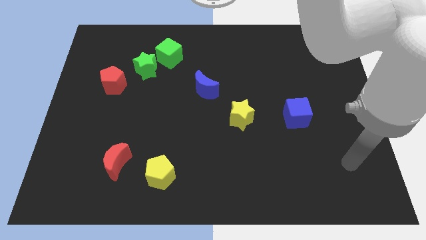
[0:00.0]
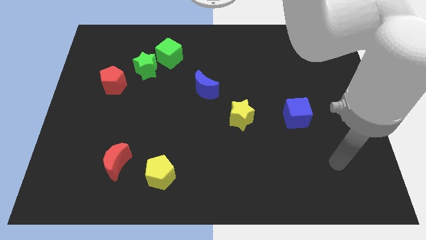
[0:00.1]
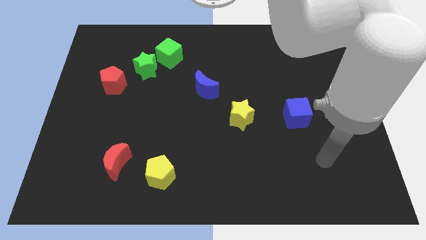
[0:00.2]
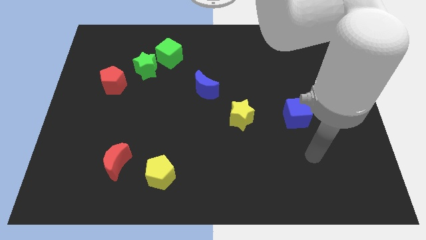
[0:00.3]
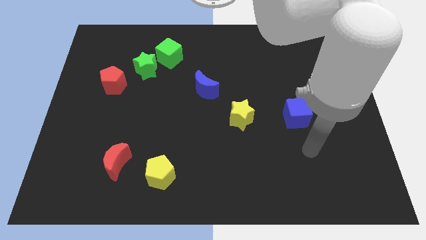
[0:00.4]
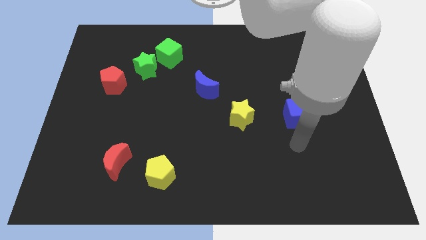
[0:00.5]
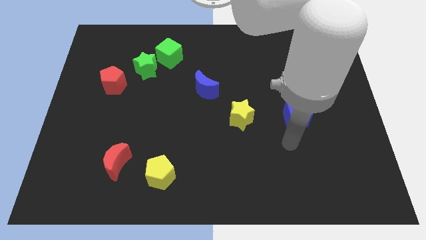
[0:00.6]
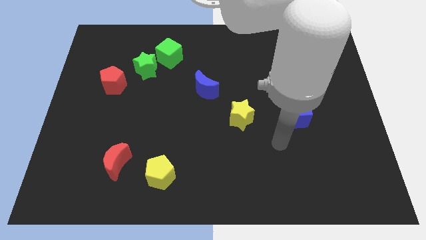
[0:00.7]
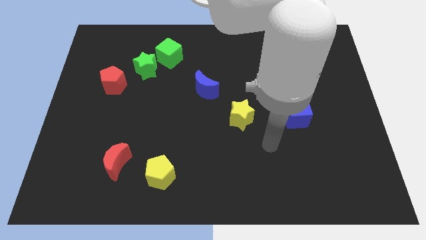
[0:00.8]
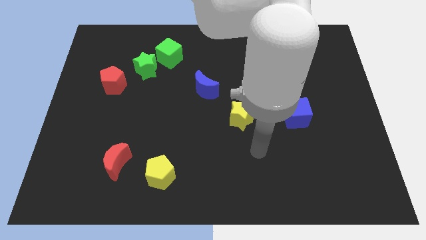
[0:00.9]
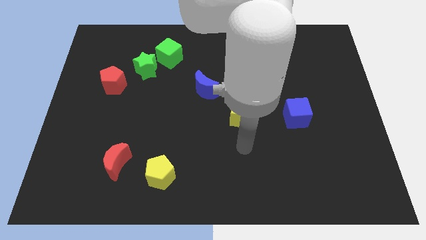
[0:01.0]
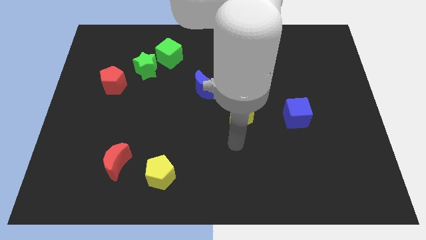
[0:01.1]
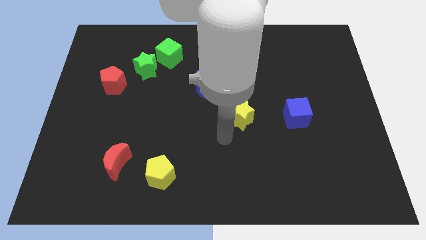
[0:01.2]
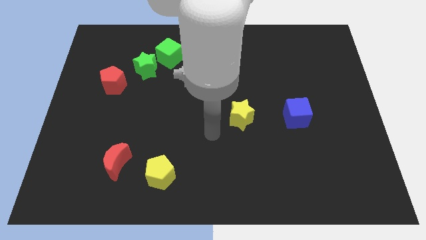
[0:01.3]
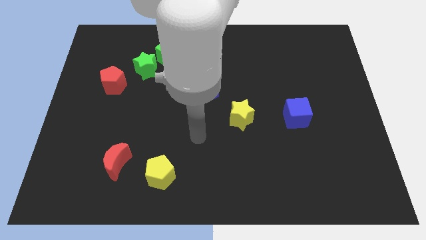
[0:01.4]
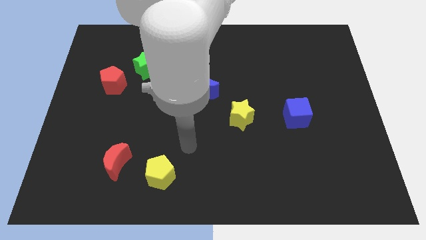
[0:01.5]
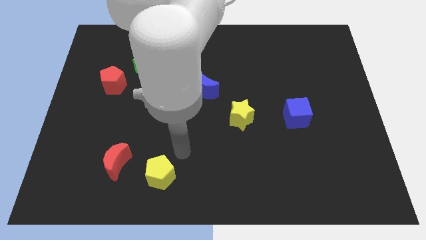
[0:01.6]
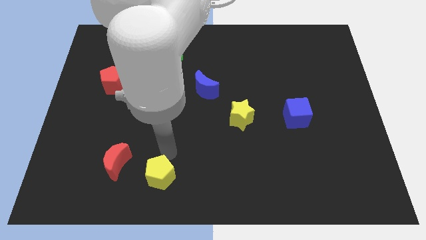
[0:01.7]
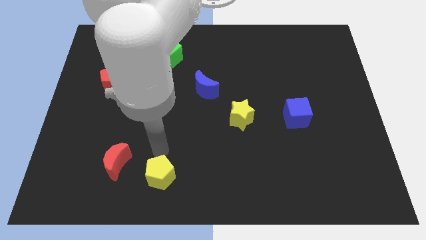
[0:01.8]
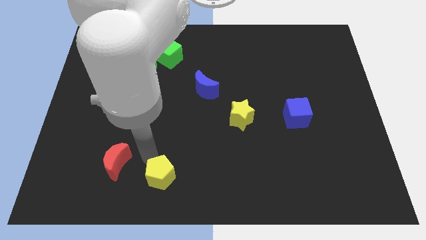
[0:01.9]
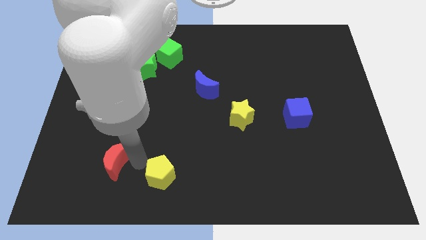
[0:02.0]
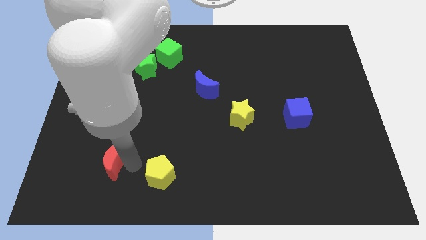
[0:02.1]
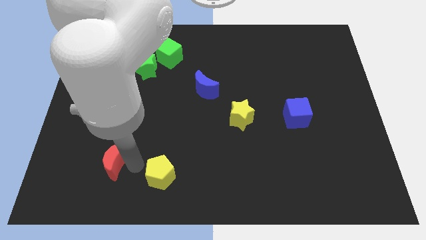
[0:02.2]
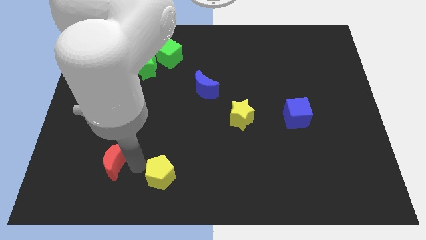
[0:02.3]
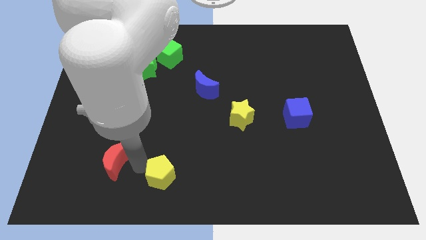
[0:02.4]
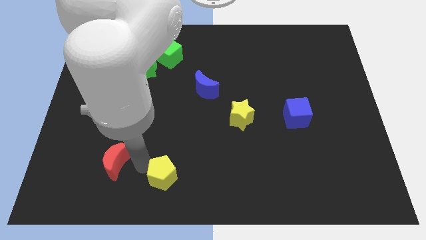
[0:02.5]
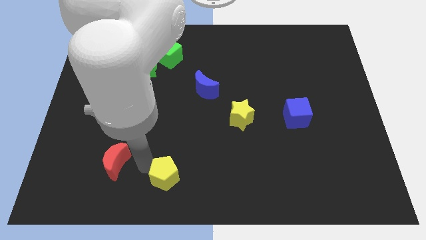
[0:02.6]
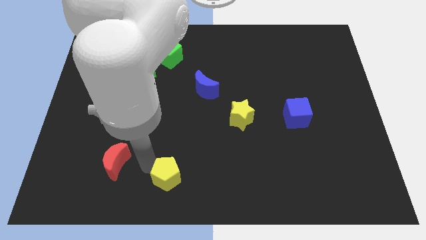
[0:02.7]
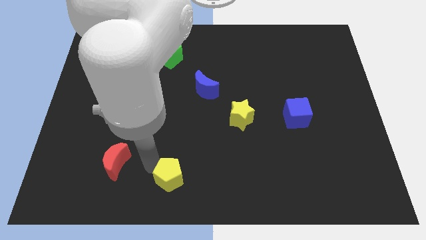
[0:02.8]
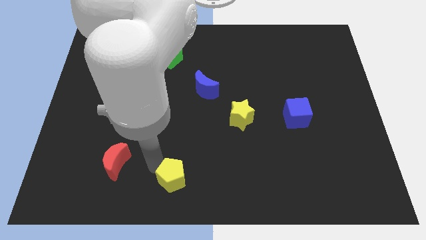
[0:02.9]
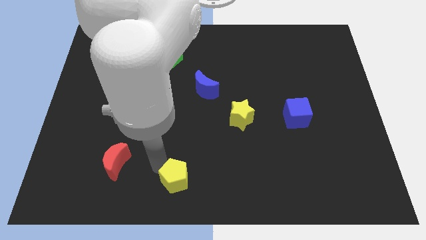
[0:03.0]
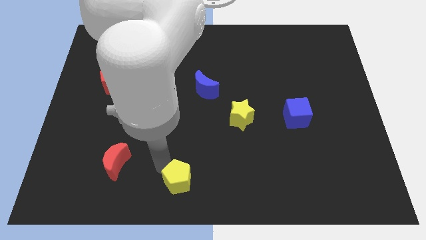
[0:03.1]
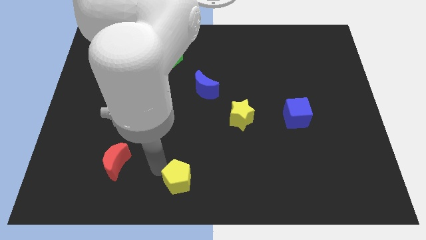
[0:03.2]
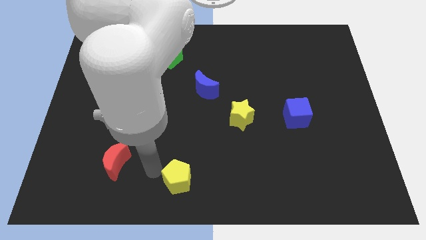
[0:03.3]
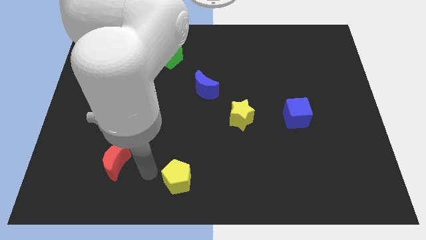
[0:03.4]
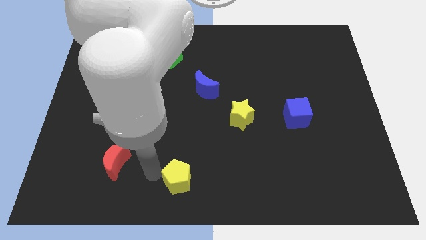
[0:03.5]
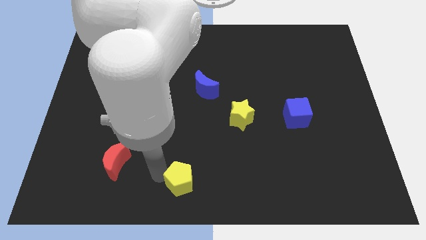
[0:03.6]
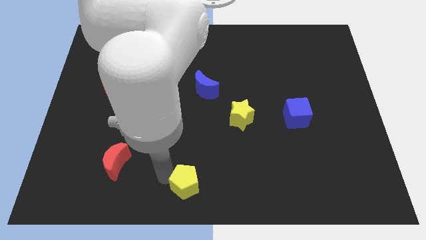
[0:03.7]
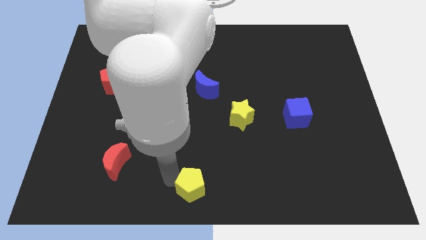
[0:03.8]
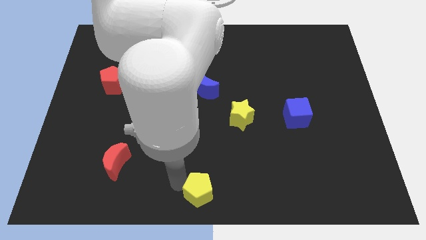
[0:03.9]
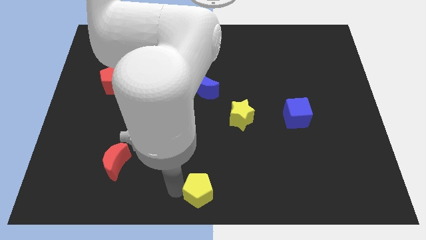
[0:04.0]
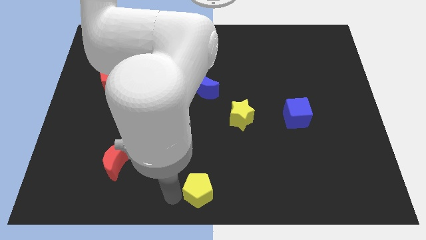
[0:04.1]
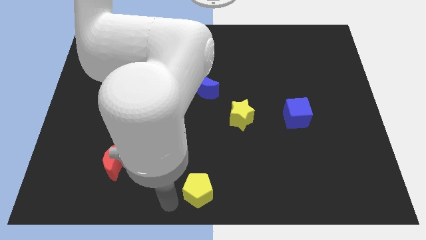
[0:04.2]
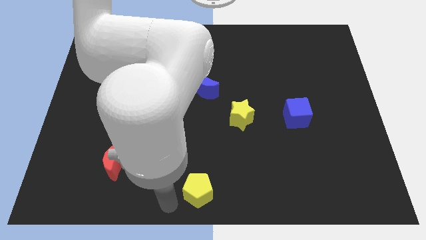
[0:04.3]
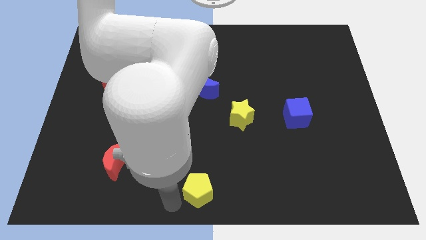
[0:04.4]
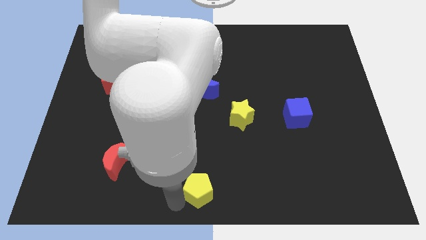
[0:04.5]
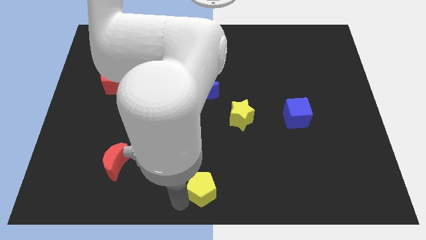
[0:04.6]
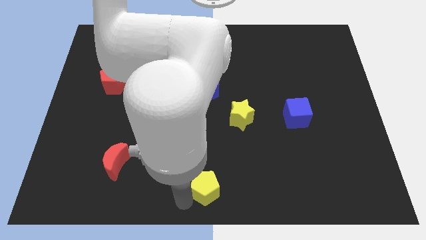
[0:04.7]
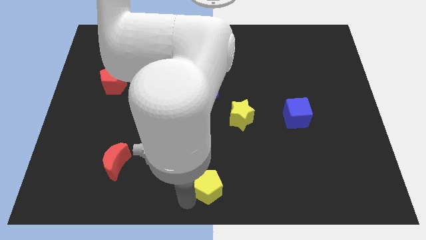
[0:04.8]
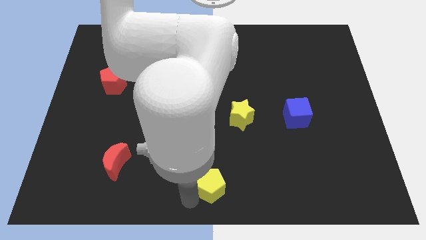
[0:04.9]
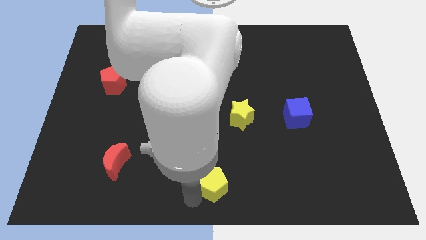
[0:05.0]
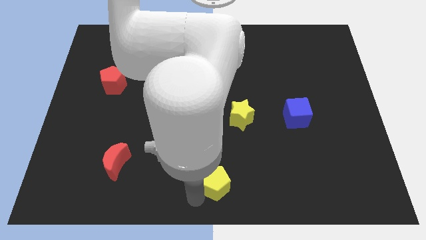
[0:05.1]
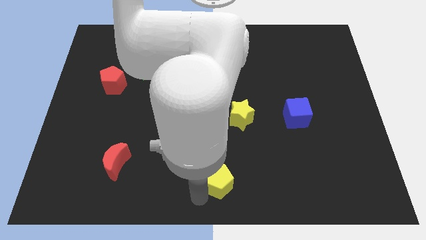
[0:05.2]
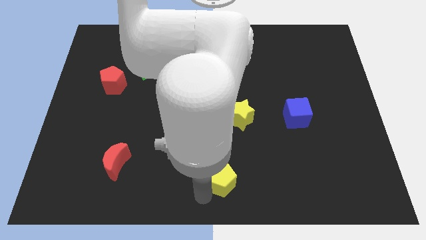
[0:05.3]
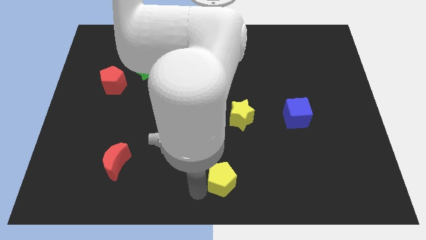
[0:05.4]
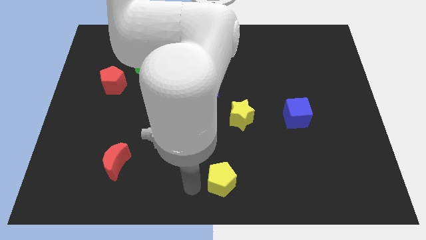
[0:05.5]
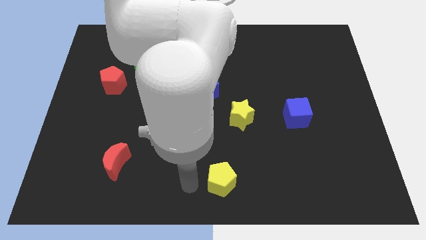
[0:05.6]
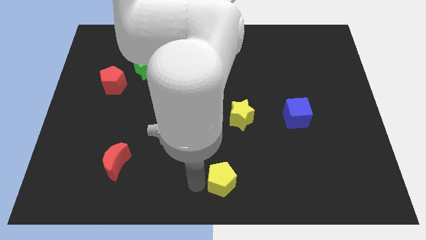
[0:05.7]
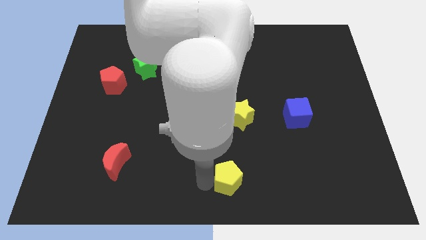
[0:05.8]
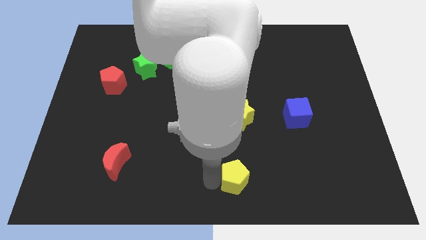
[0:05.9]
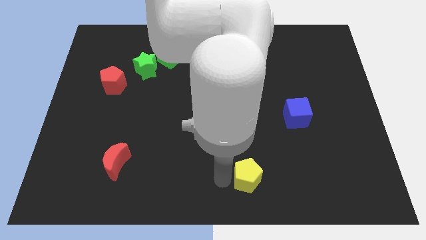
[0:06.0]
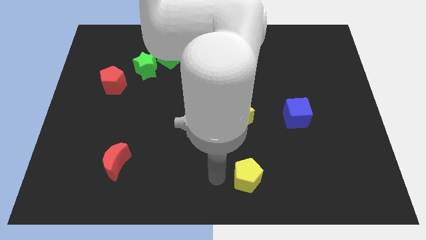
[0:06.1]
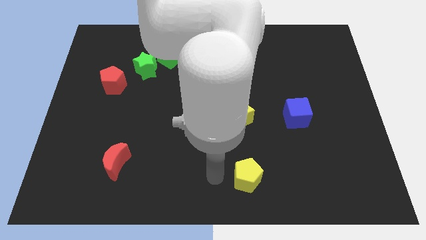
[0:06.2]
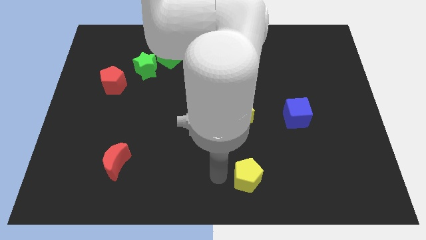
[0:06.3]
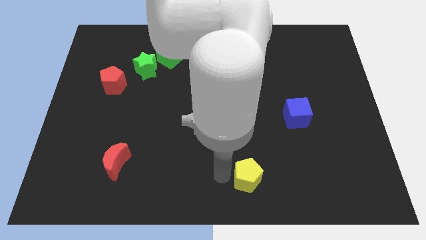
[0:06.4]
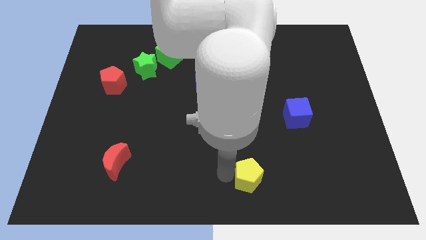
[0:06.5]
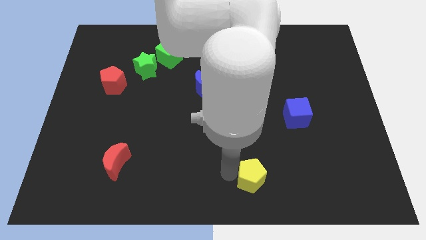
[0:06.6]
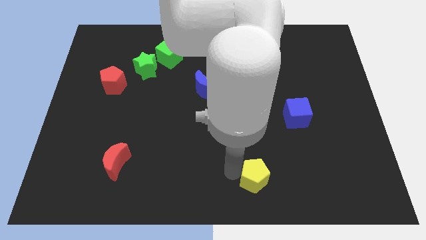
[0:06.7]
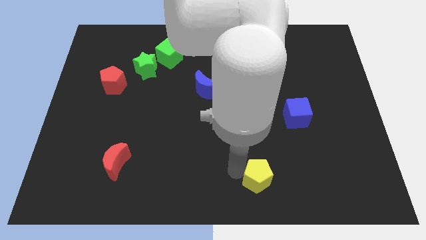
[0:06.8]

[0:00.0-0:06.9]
push the yellow pentagon to the right

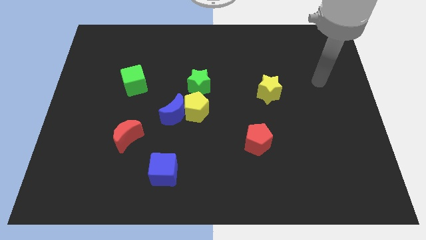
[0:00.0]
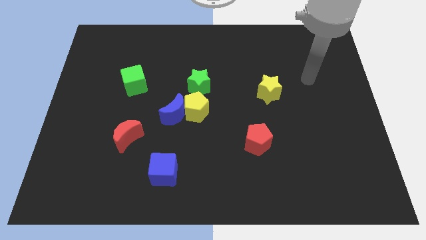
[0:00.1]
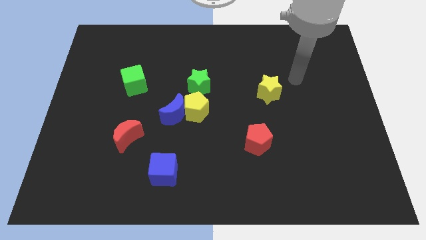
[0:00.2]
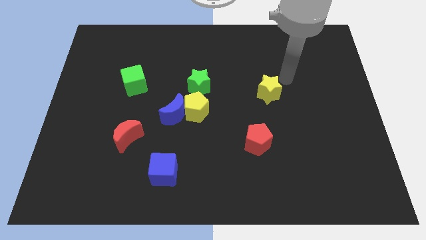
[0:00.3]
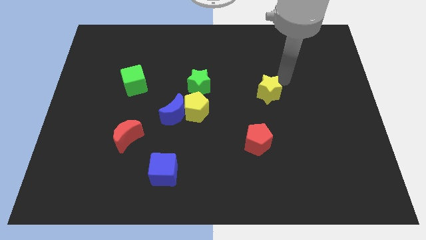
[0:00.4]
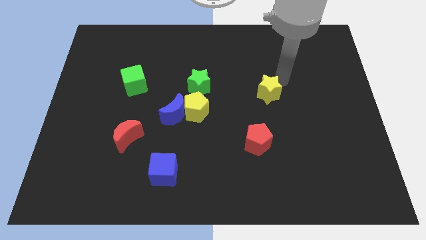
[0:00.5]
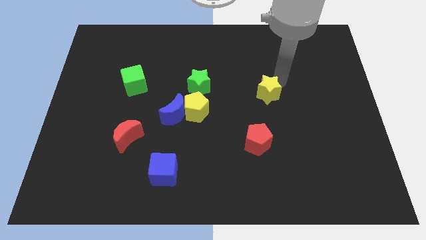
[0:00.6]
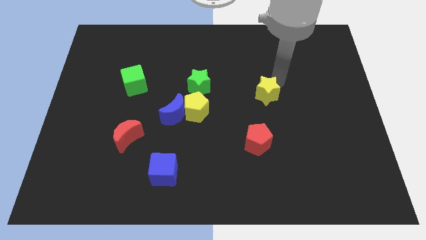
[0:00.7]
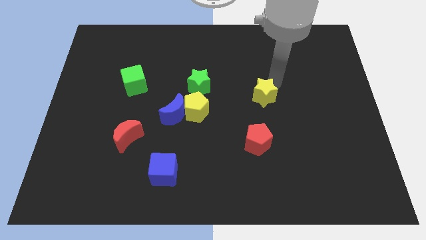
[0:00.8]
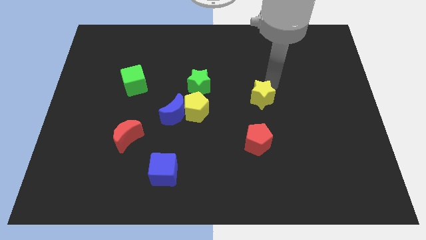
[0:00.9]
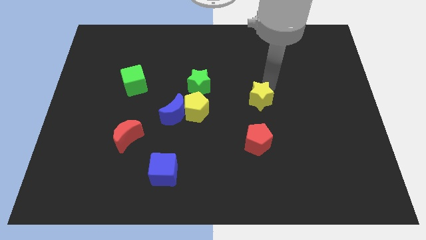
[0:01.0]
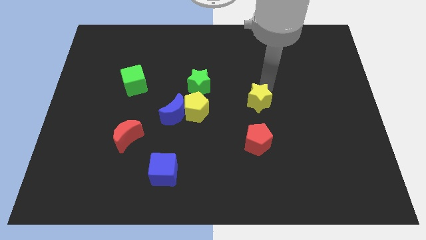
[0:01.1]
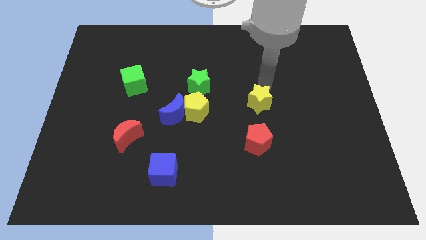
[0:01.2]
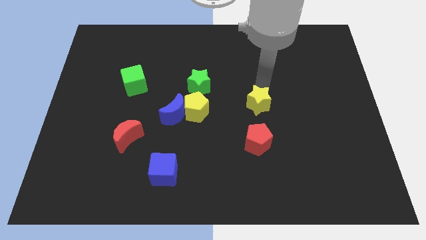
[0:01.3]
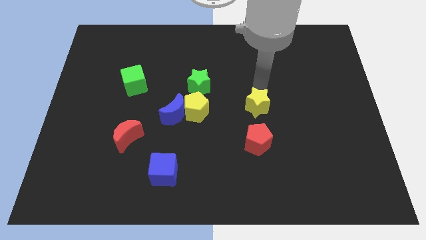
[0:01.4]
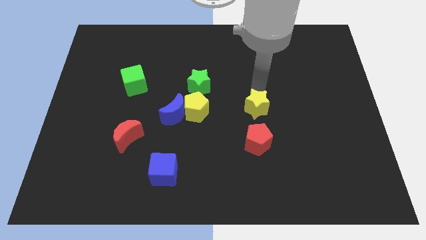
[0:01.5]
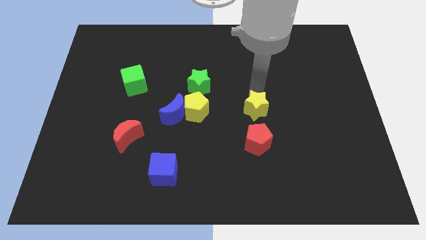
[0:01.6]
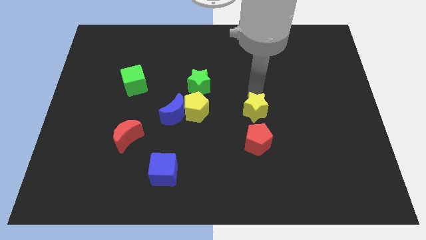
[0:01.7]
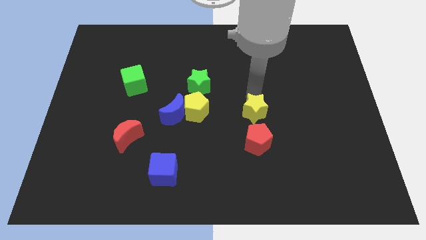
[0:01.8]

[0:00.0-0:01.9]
move the yellow star a little bit down and to the left
